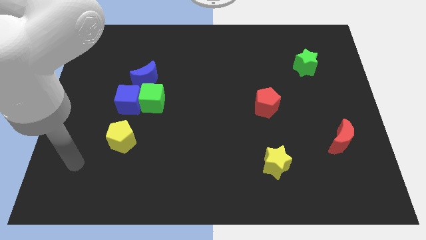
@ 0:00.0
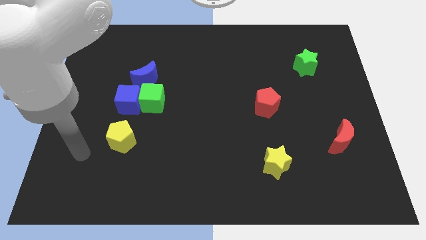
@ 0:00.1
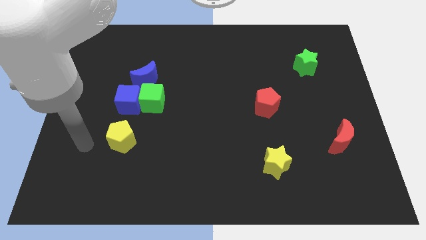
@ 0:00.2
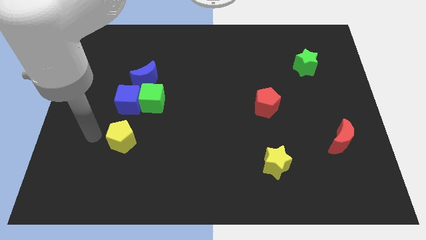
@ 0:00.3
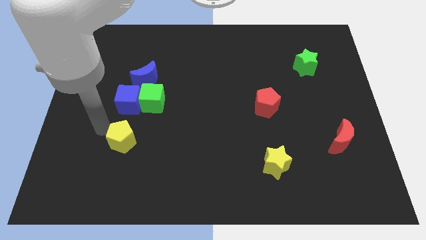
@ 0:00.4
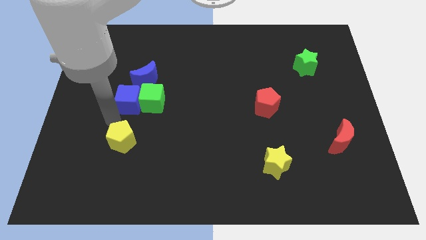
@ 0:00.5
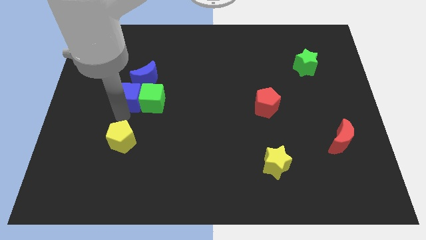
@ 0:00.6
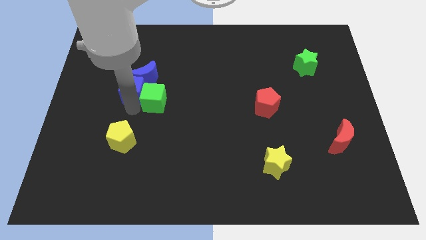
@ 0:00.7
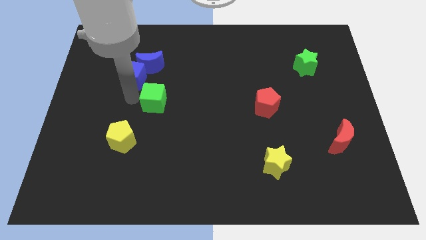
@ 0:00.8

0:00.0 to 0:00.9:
pull the green cube apart from the blue cube and blue moon

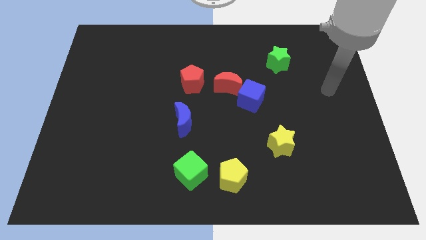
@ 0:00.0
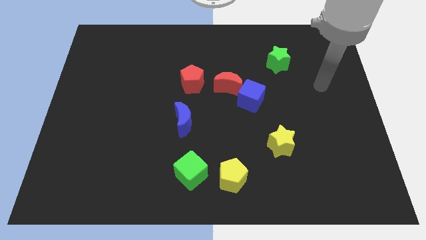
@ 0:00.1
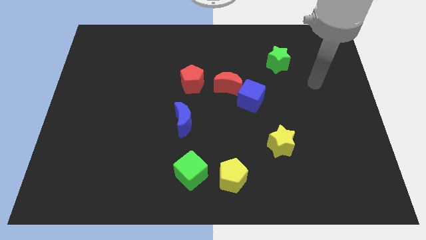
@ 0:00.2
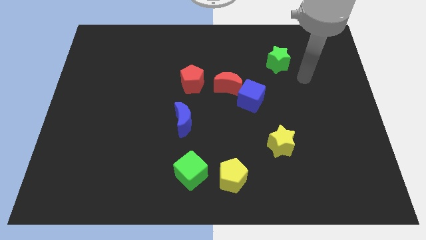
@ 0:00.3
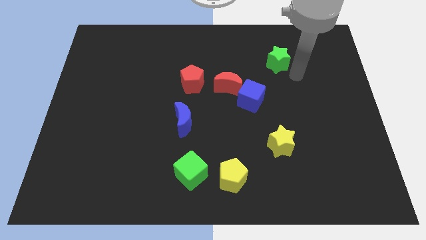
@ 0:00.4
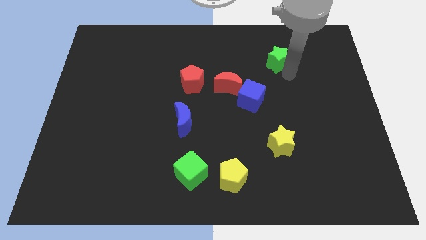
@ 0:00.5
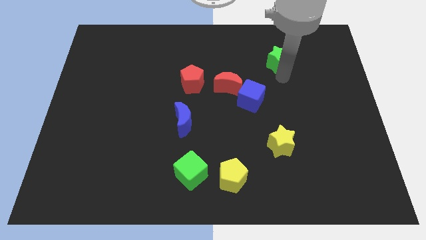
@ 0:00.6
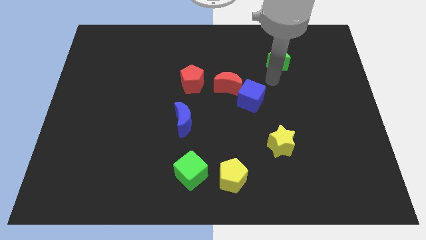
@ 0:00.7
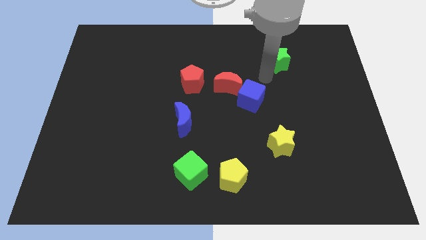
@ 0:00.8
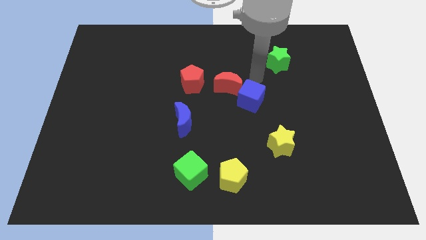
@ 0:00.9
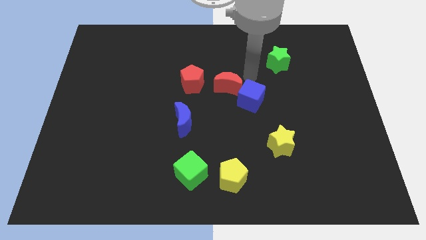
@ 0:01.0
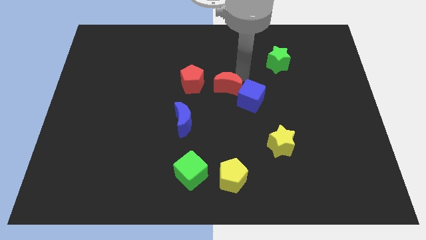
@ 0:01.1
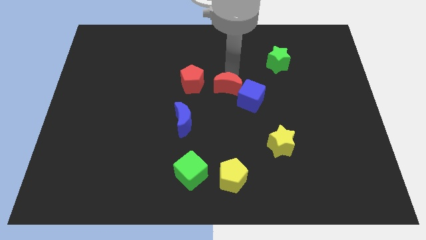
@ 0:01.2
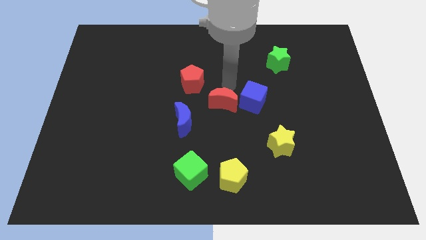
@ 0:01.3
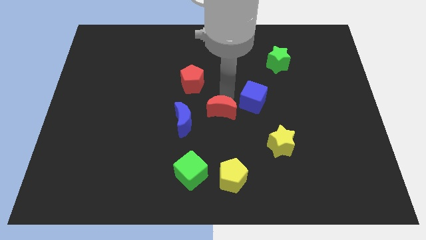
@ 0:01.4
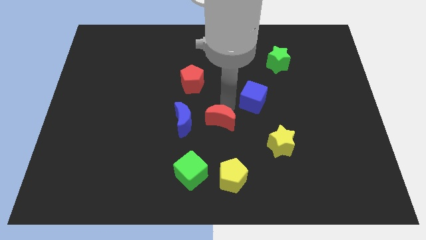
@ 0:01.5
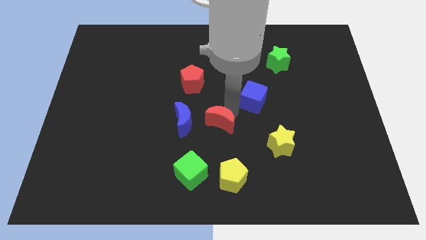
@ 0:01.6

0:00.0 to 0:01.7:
separate the blue cube from the red moon

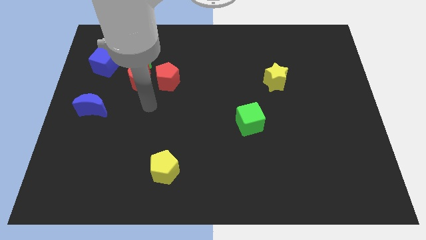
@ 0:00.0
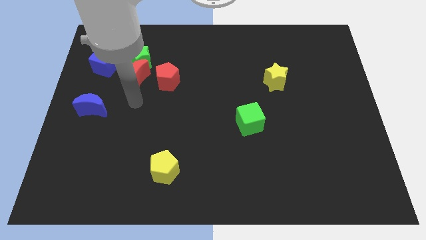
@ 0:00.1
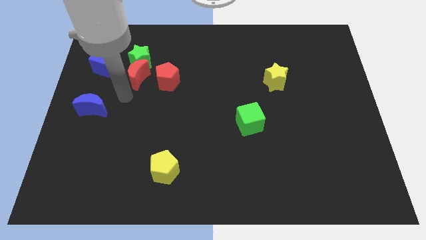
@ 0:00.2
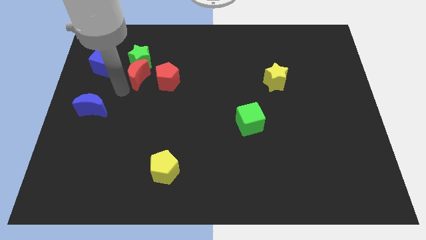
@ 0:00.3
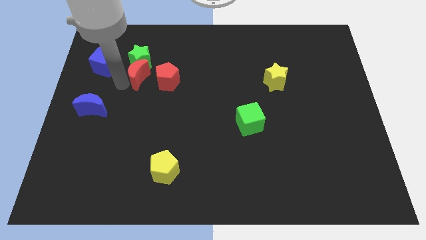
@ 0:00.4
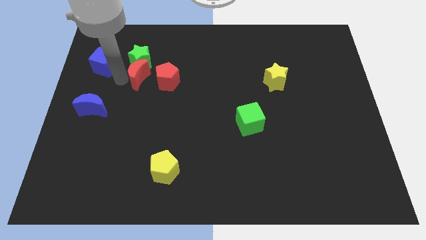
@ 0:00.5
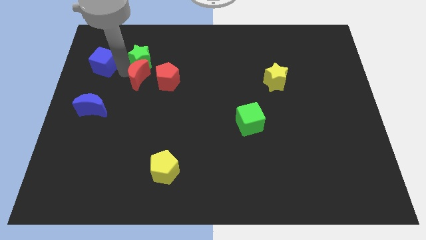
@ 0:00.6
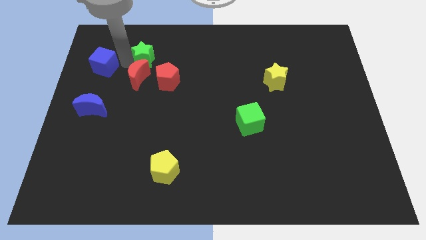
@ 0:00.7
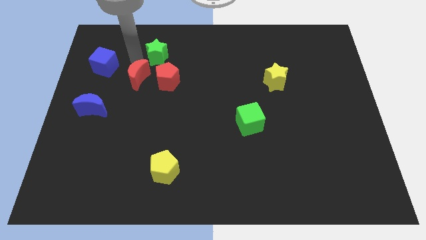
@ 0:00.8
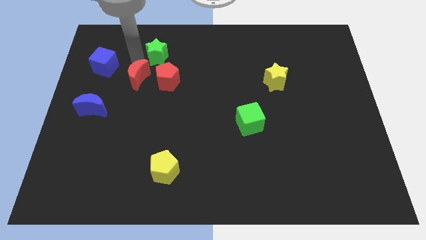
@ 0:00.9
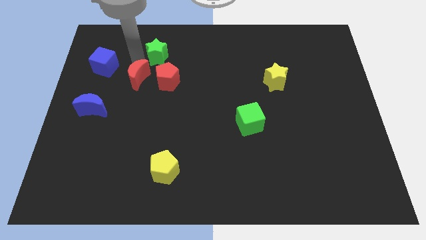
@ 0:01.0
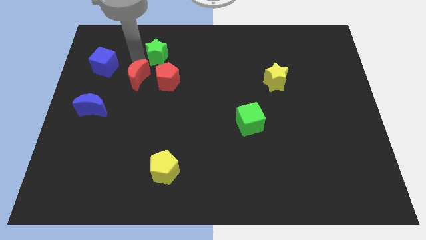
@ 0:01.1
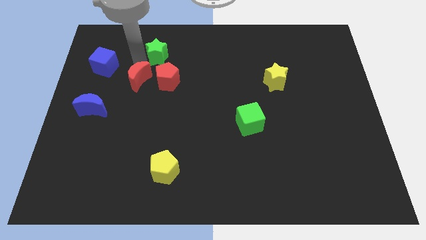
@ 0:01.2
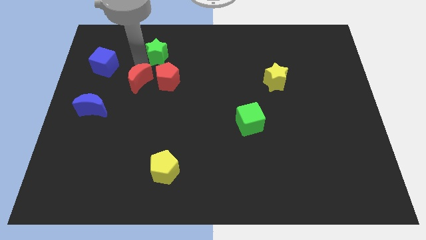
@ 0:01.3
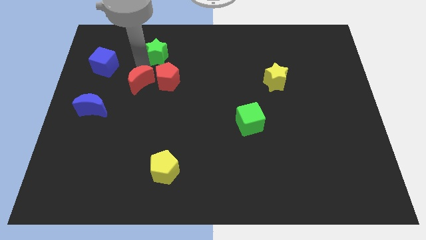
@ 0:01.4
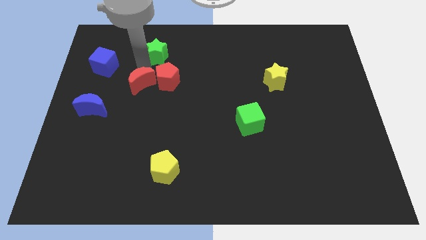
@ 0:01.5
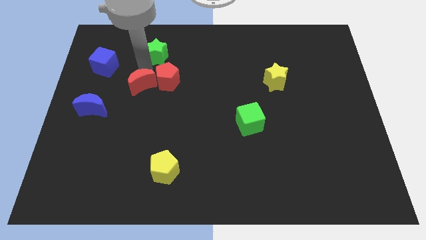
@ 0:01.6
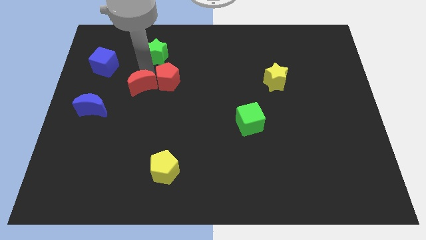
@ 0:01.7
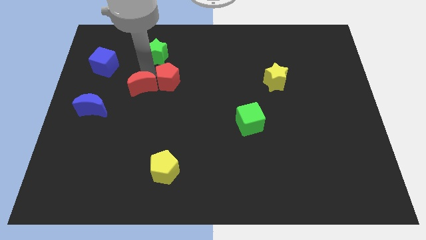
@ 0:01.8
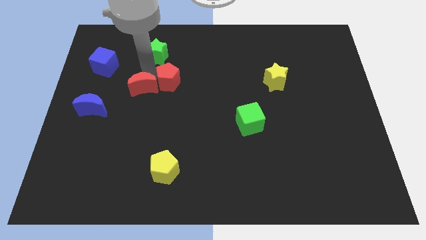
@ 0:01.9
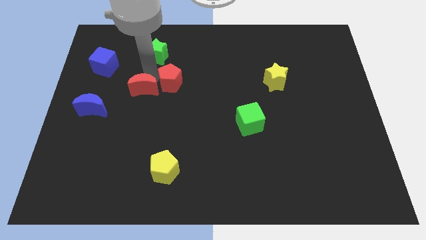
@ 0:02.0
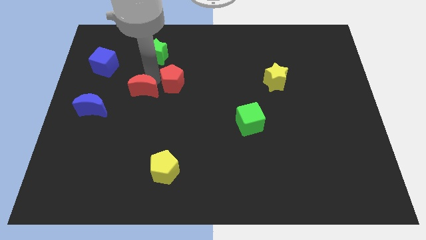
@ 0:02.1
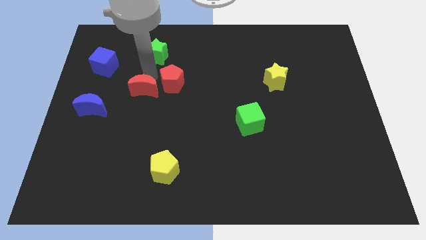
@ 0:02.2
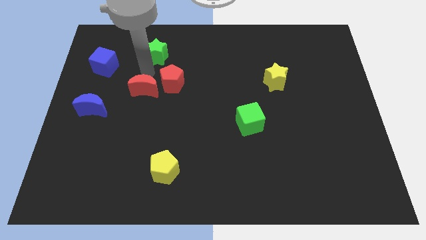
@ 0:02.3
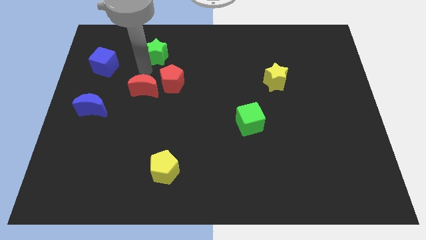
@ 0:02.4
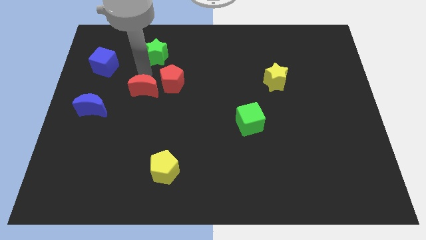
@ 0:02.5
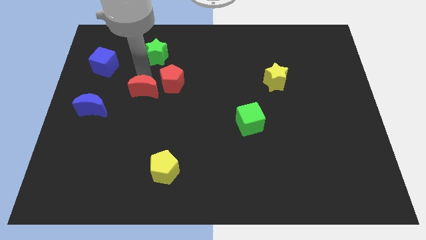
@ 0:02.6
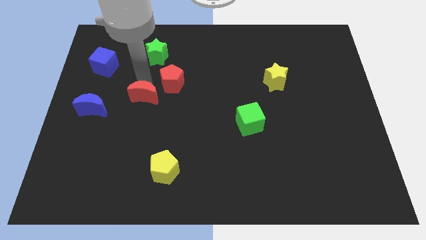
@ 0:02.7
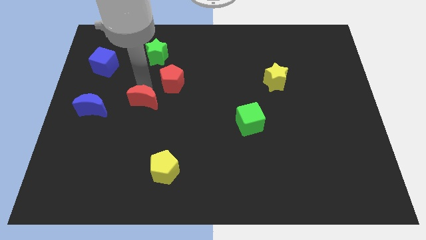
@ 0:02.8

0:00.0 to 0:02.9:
separate the red moon from the green star, red pentagon, and blue cube

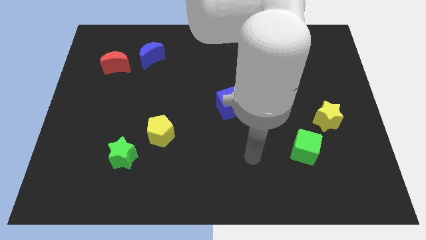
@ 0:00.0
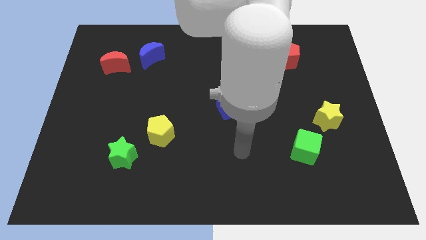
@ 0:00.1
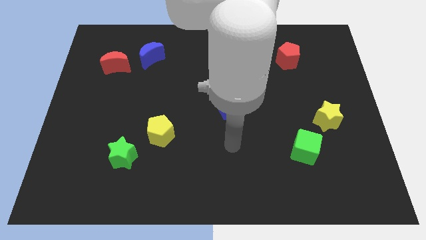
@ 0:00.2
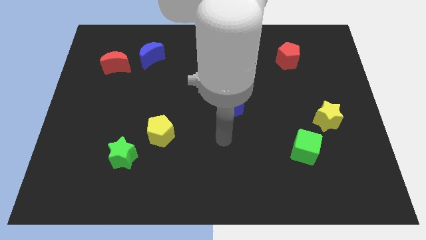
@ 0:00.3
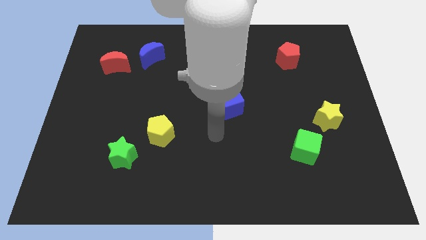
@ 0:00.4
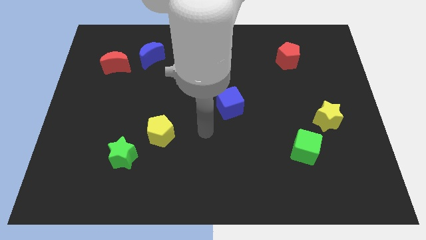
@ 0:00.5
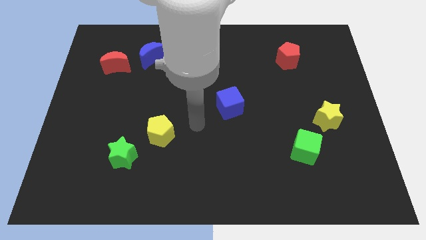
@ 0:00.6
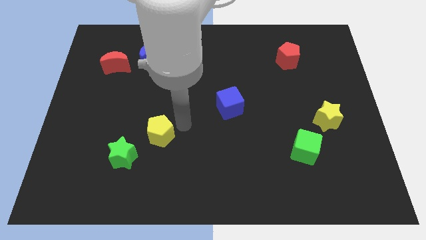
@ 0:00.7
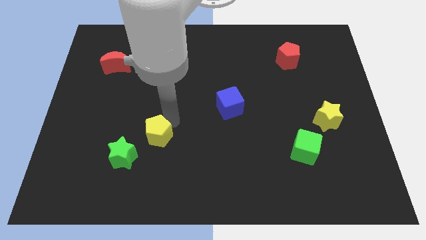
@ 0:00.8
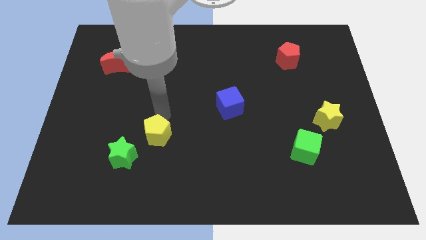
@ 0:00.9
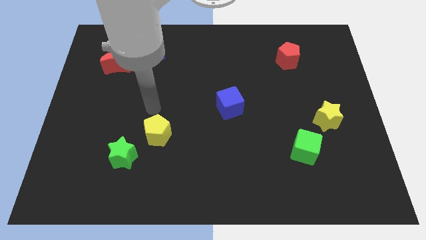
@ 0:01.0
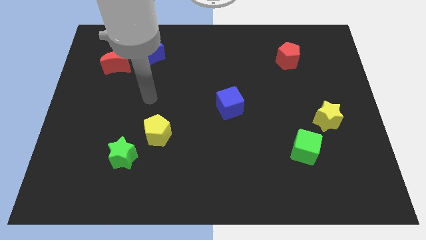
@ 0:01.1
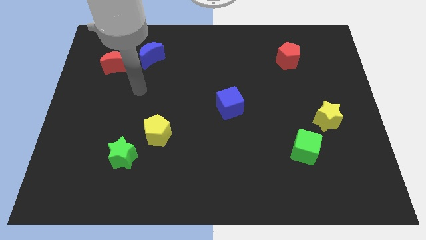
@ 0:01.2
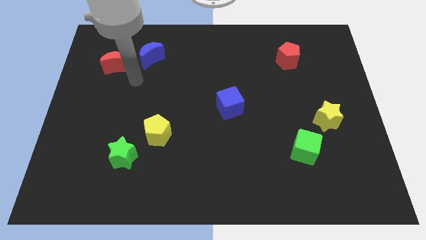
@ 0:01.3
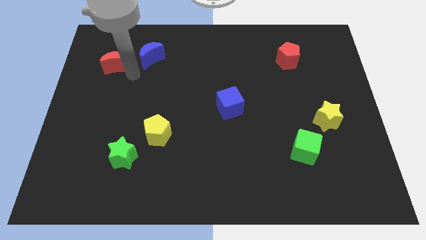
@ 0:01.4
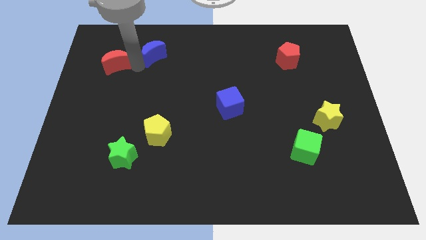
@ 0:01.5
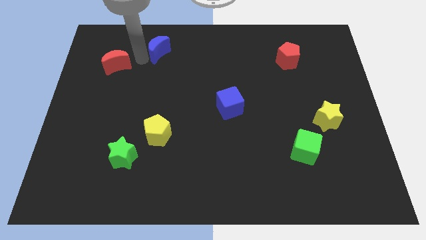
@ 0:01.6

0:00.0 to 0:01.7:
move the red moon away from the blue moon

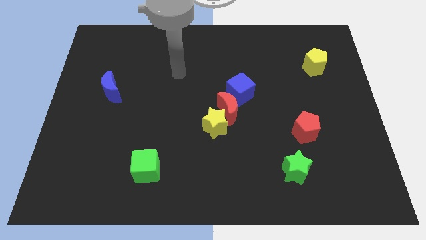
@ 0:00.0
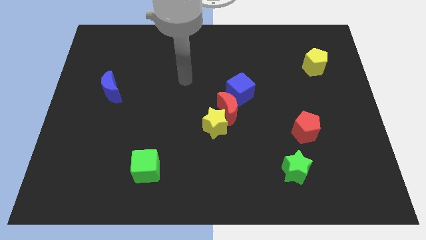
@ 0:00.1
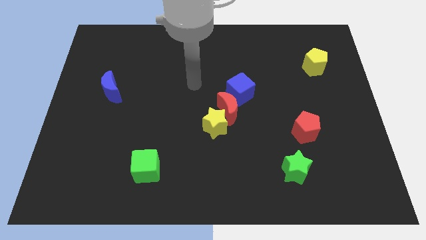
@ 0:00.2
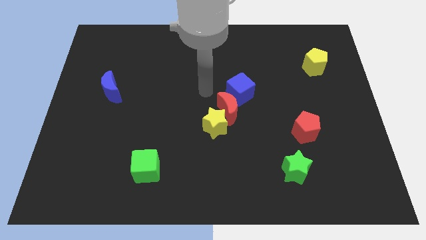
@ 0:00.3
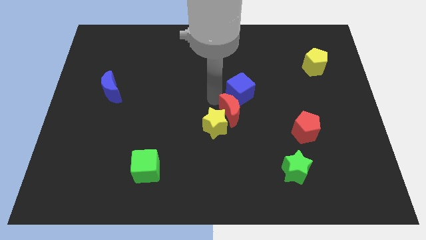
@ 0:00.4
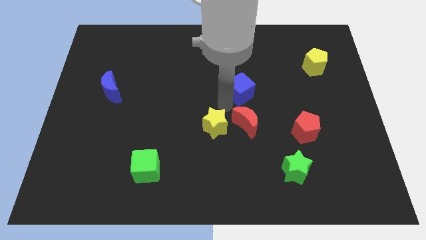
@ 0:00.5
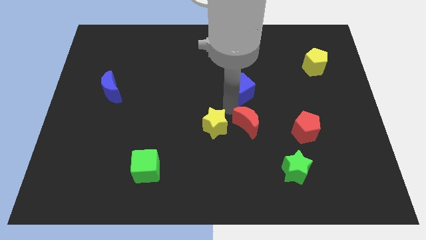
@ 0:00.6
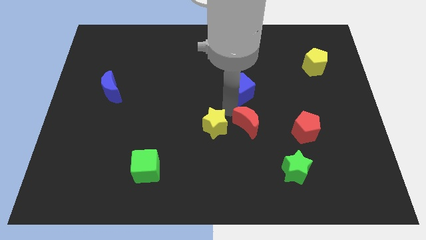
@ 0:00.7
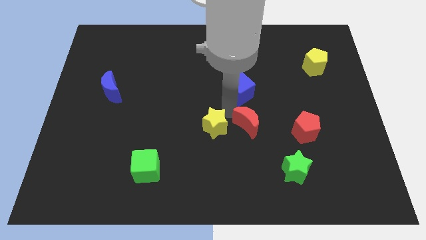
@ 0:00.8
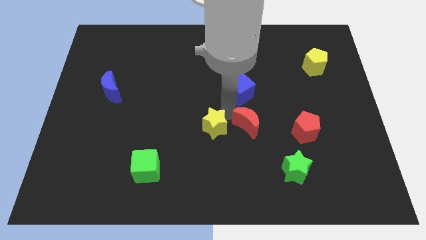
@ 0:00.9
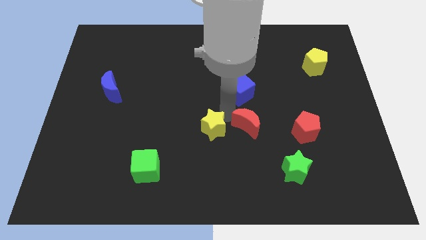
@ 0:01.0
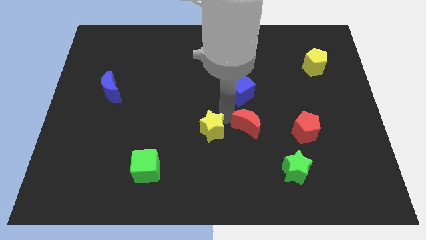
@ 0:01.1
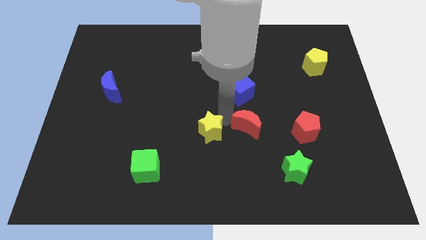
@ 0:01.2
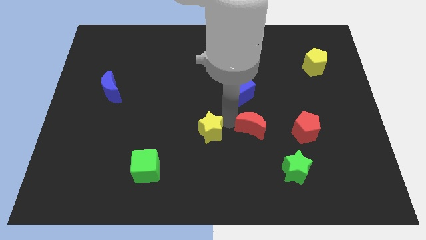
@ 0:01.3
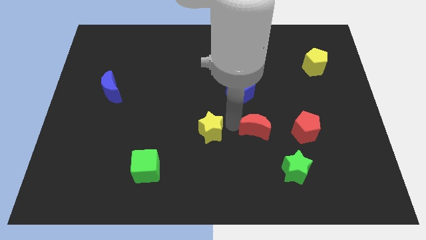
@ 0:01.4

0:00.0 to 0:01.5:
pull the yellow star apart from the red moon

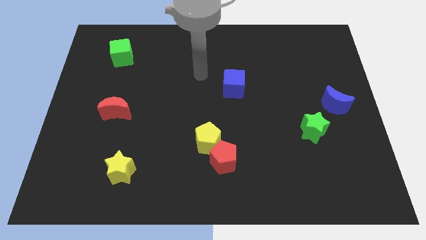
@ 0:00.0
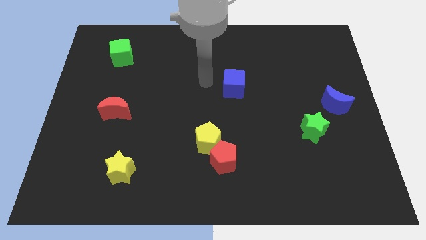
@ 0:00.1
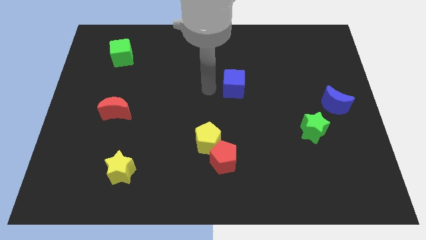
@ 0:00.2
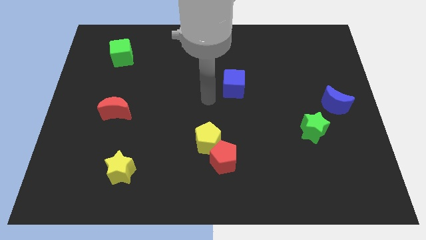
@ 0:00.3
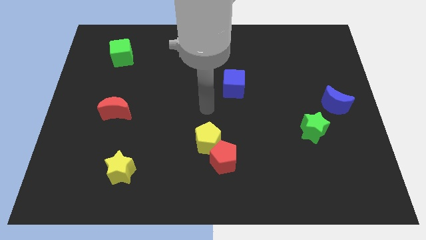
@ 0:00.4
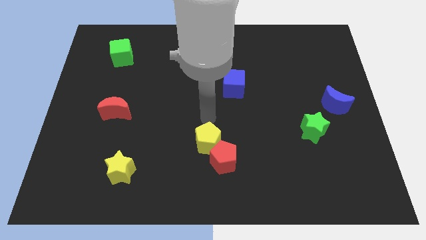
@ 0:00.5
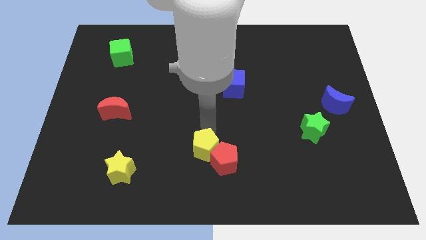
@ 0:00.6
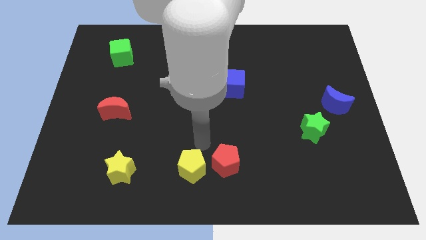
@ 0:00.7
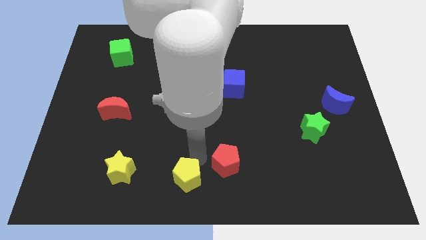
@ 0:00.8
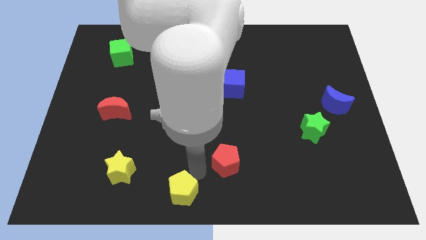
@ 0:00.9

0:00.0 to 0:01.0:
pull the red pentagon apart from the yellow pentagon
